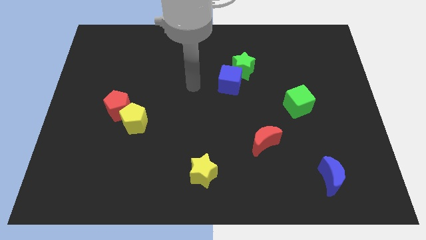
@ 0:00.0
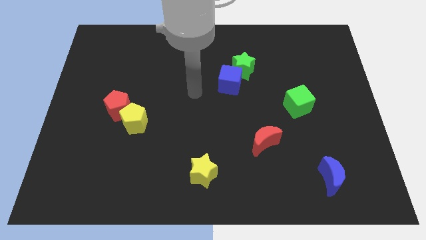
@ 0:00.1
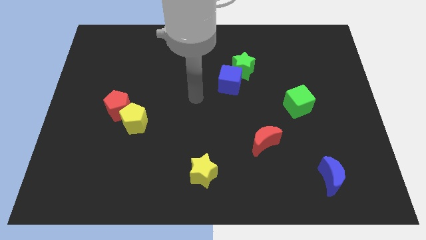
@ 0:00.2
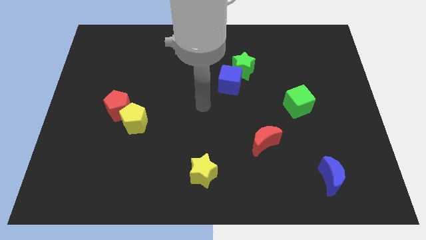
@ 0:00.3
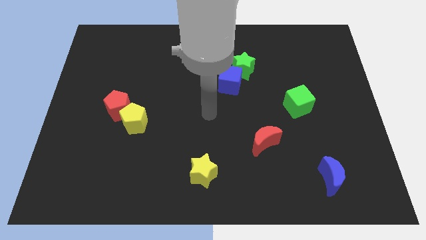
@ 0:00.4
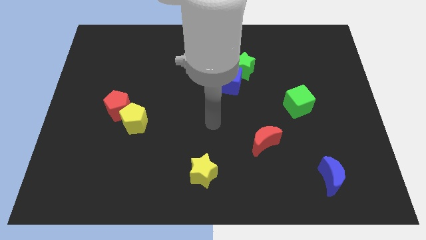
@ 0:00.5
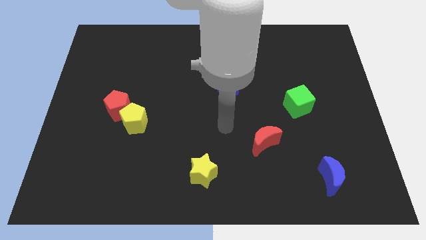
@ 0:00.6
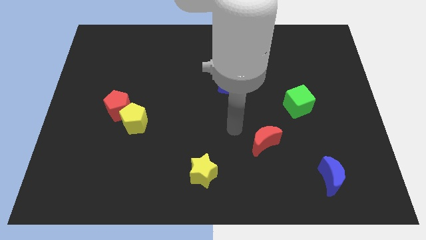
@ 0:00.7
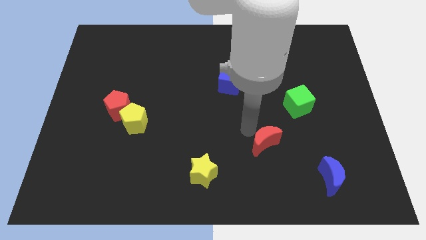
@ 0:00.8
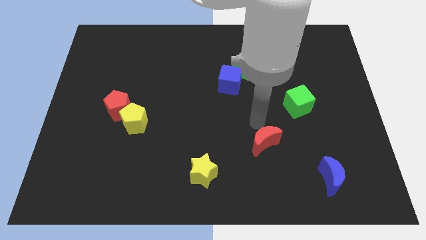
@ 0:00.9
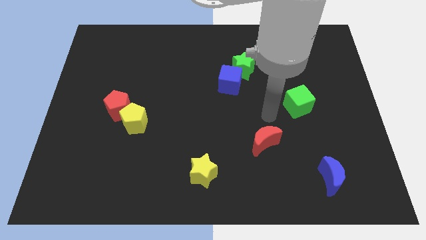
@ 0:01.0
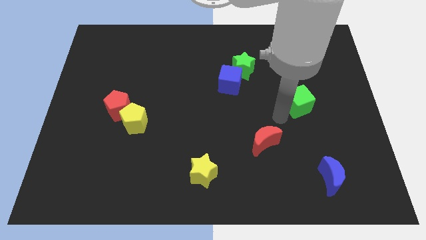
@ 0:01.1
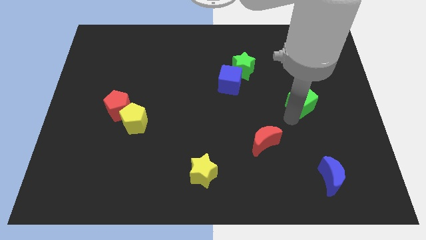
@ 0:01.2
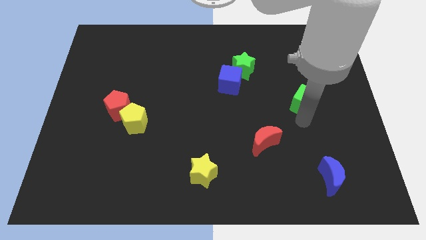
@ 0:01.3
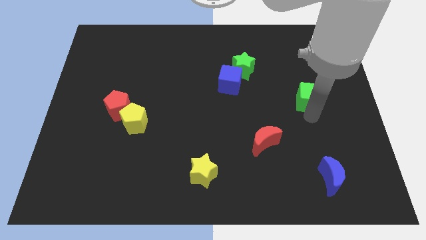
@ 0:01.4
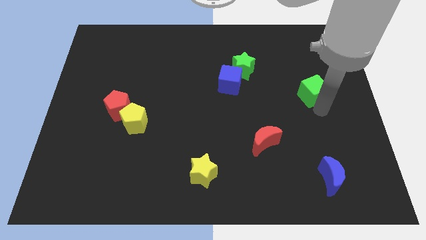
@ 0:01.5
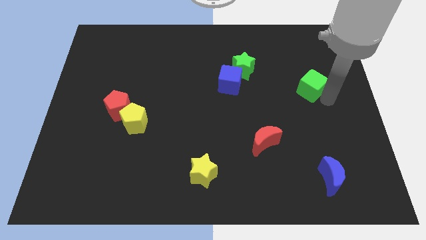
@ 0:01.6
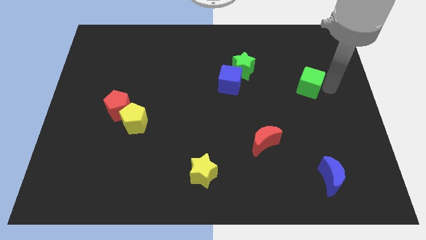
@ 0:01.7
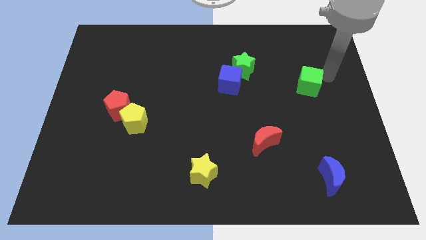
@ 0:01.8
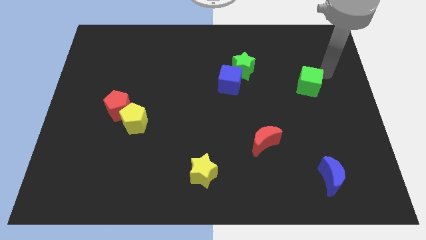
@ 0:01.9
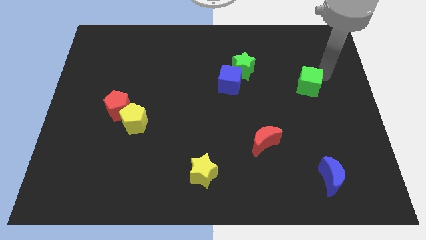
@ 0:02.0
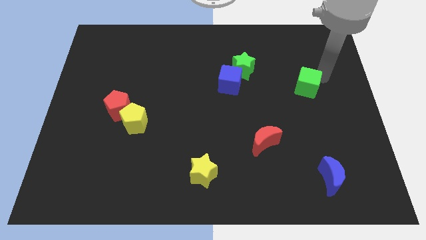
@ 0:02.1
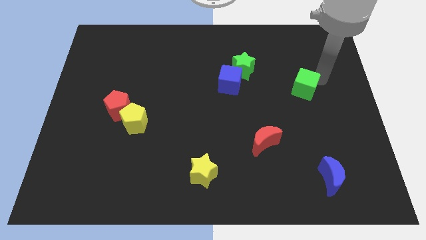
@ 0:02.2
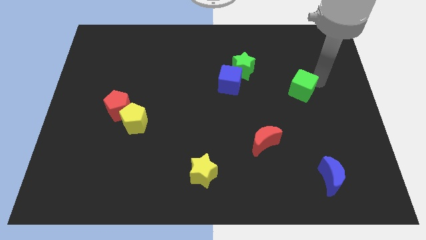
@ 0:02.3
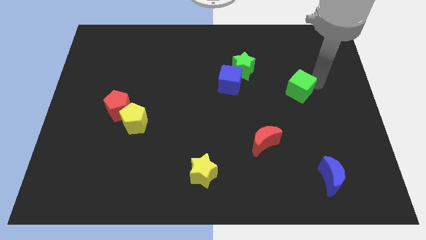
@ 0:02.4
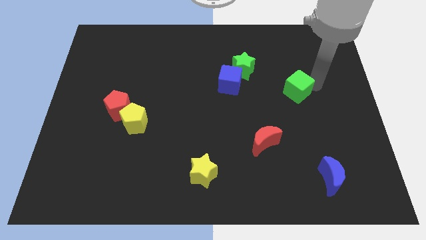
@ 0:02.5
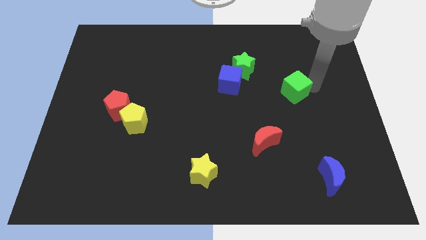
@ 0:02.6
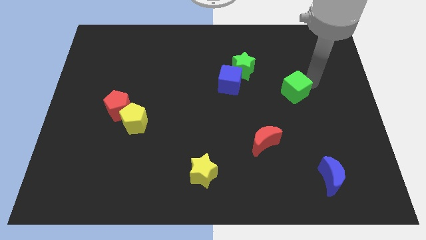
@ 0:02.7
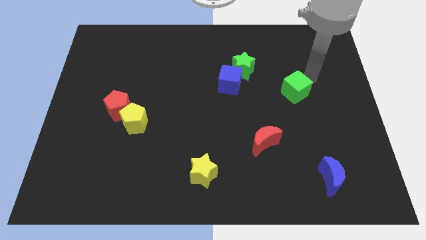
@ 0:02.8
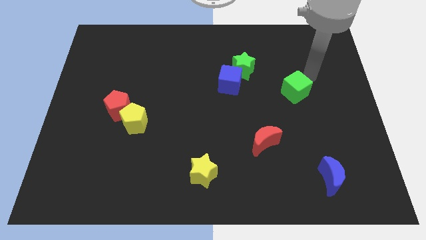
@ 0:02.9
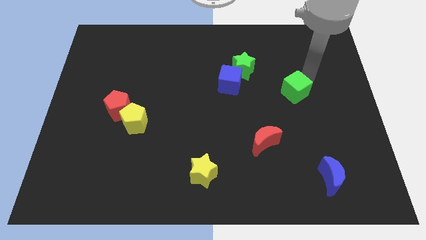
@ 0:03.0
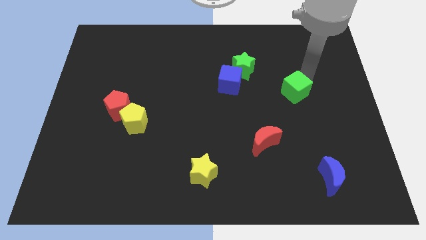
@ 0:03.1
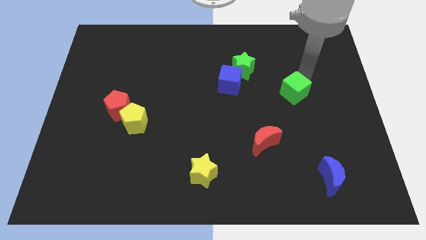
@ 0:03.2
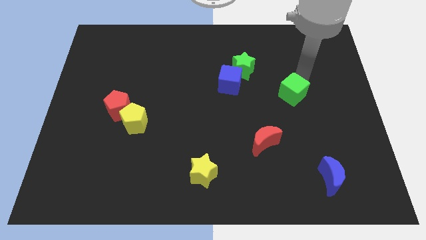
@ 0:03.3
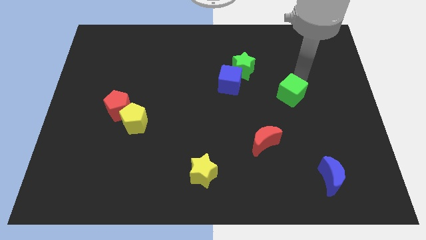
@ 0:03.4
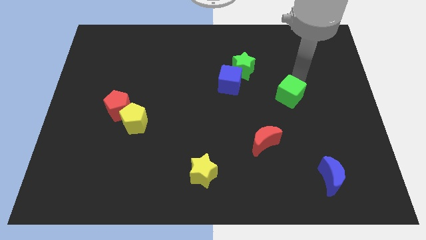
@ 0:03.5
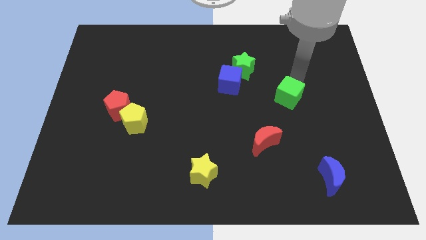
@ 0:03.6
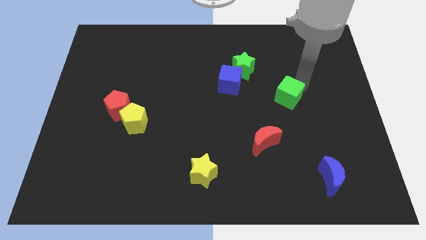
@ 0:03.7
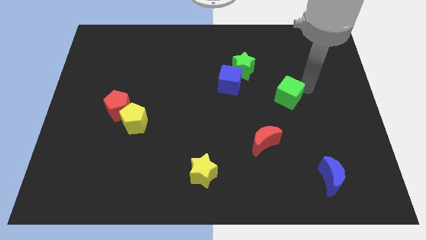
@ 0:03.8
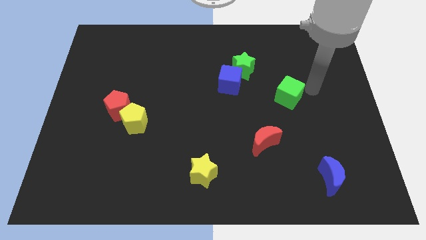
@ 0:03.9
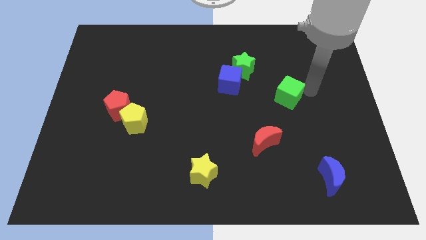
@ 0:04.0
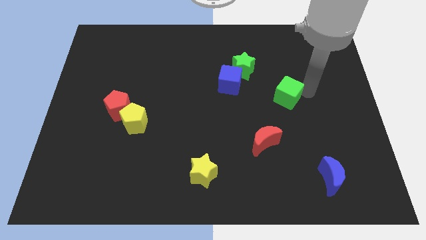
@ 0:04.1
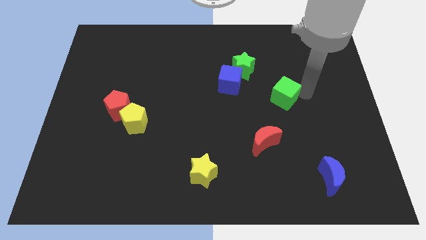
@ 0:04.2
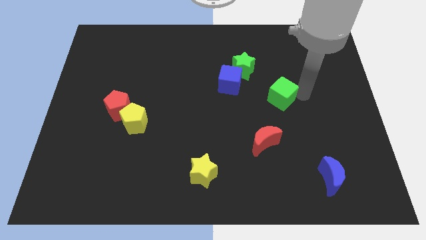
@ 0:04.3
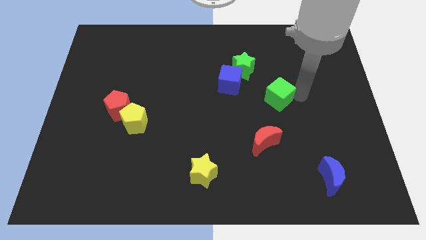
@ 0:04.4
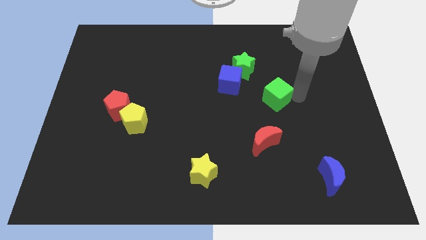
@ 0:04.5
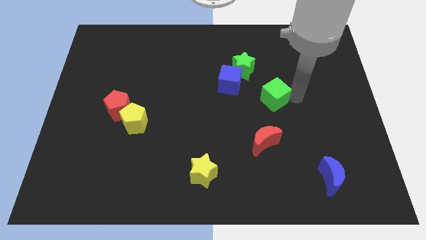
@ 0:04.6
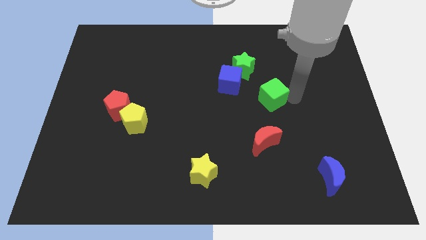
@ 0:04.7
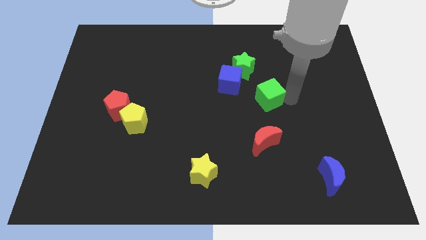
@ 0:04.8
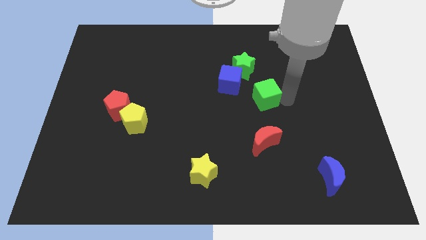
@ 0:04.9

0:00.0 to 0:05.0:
put the green cube to the center

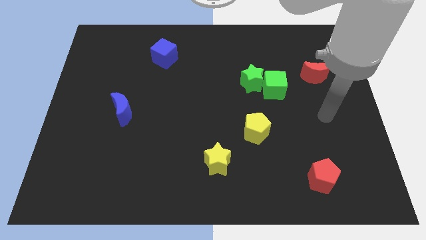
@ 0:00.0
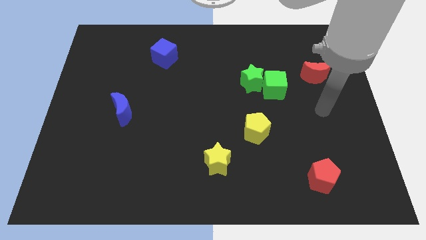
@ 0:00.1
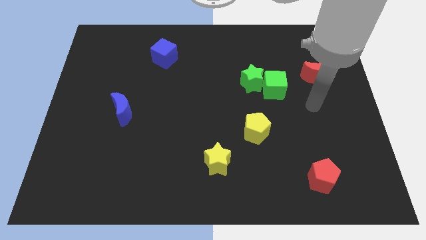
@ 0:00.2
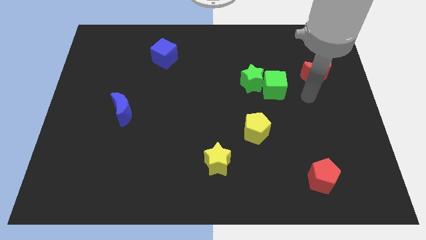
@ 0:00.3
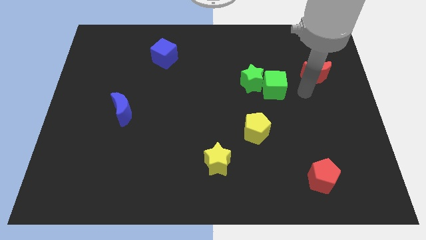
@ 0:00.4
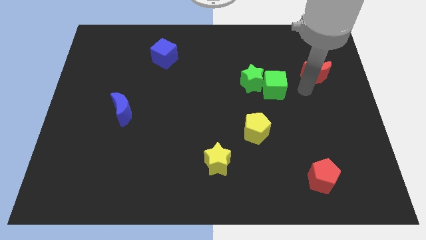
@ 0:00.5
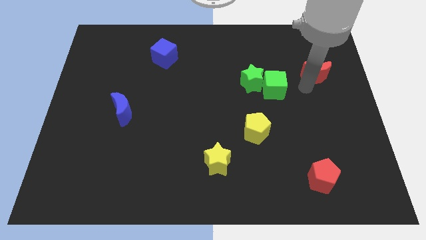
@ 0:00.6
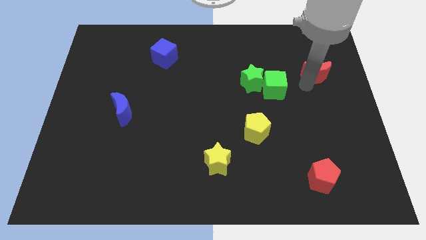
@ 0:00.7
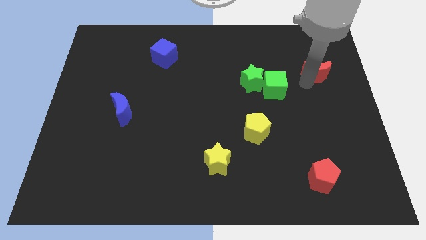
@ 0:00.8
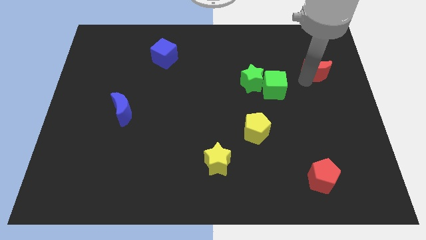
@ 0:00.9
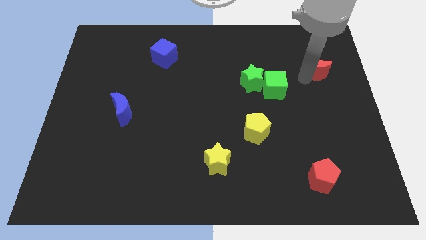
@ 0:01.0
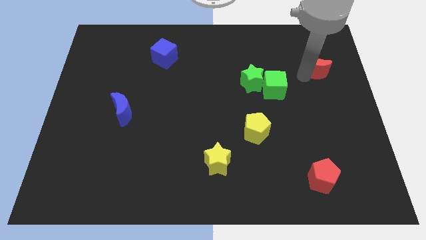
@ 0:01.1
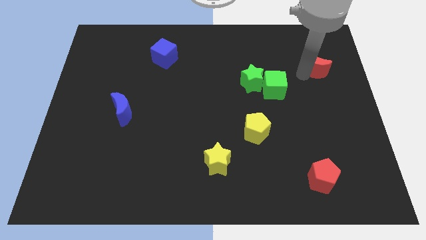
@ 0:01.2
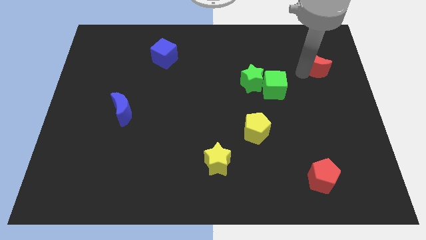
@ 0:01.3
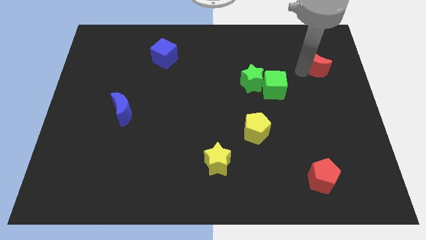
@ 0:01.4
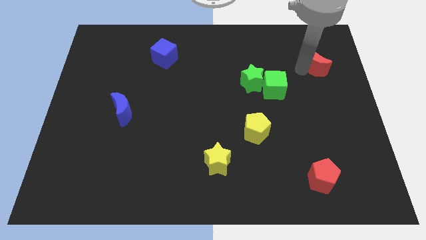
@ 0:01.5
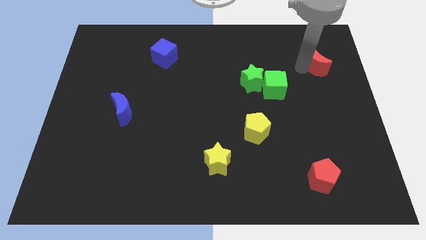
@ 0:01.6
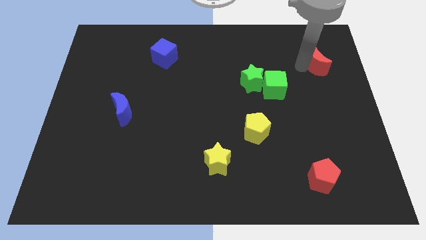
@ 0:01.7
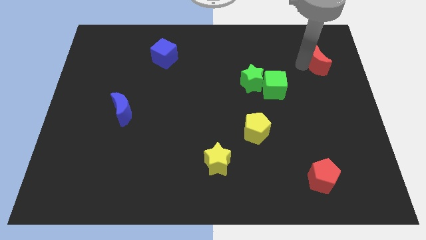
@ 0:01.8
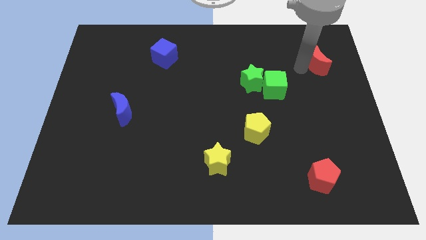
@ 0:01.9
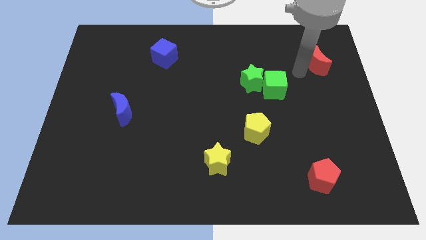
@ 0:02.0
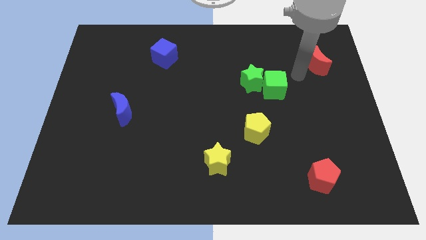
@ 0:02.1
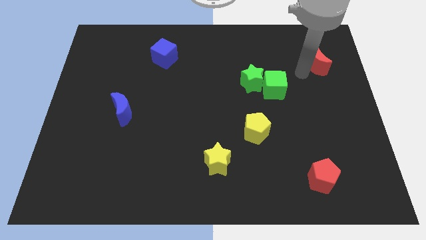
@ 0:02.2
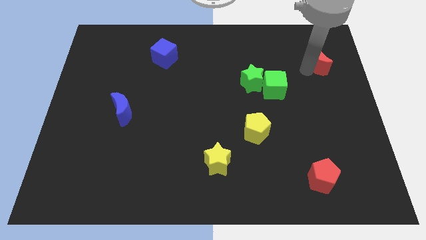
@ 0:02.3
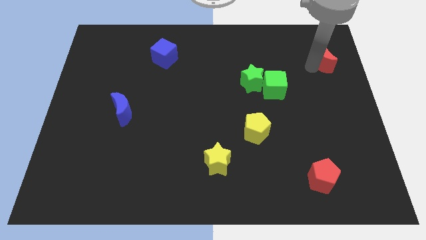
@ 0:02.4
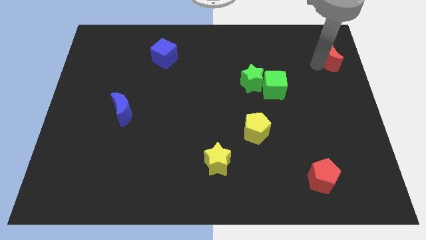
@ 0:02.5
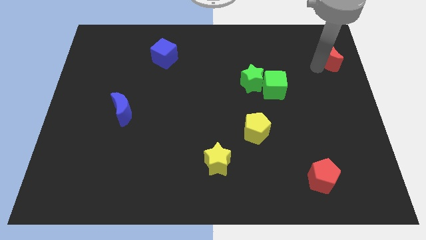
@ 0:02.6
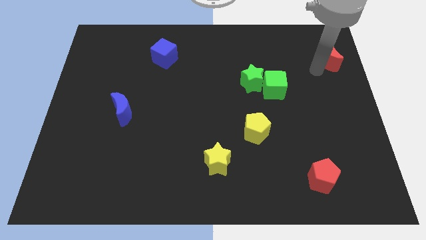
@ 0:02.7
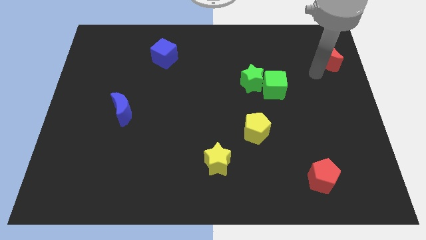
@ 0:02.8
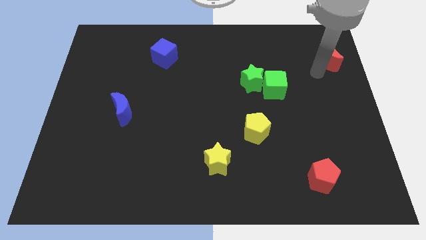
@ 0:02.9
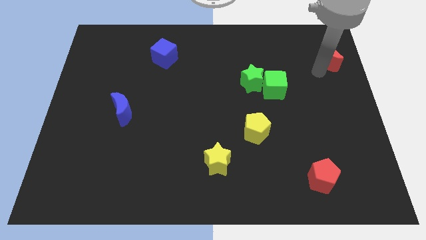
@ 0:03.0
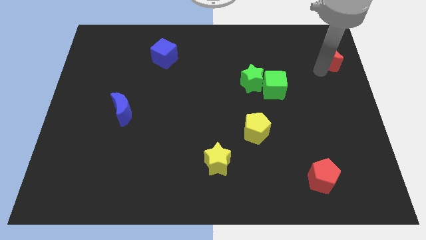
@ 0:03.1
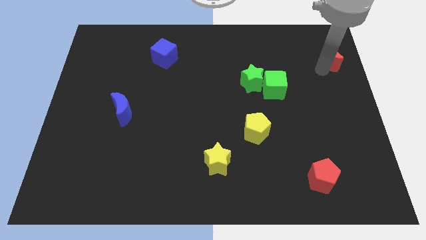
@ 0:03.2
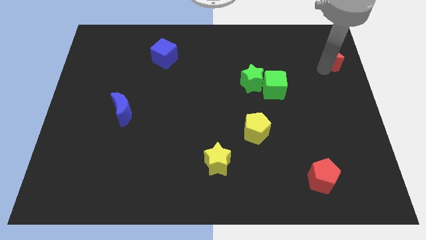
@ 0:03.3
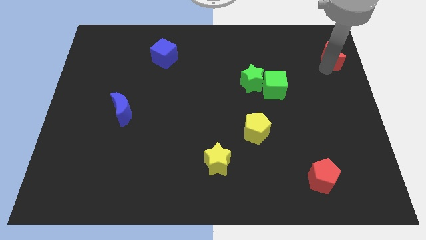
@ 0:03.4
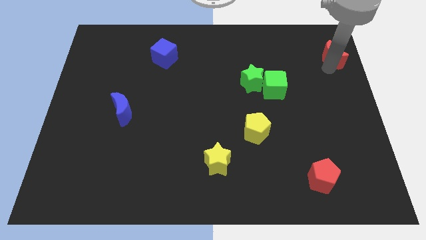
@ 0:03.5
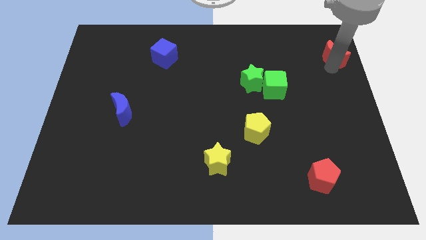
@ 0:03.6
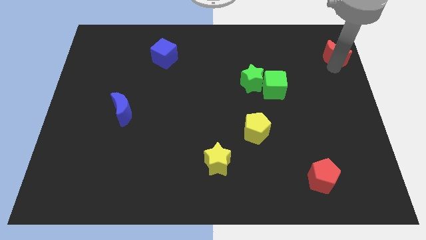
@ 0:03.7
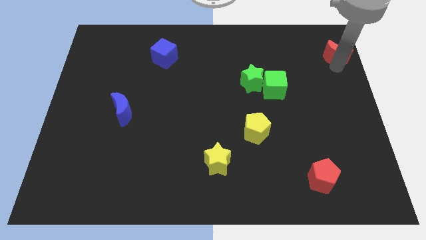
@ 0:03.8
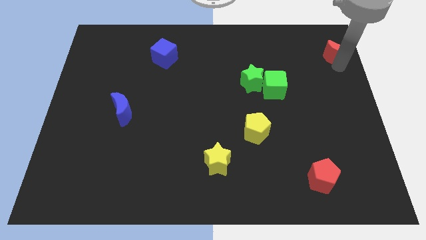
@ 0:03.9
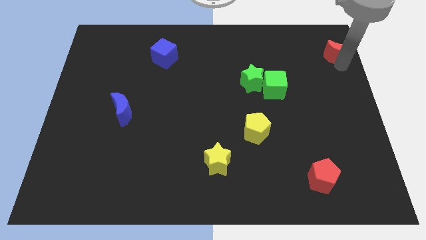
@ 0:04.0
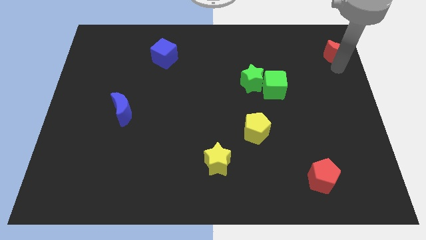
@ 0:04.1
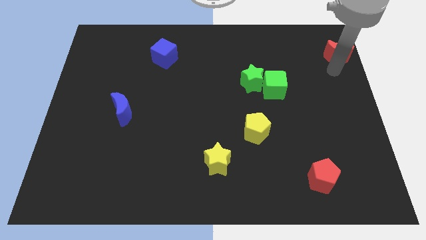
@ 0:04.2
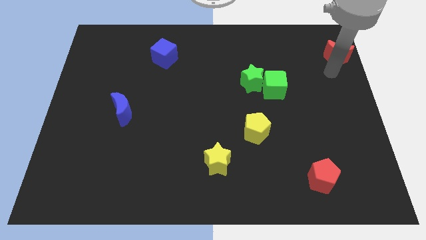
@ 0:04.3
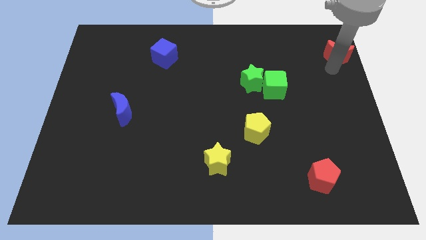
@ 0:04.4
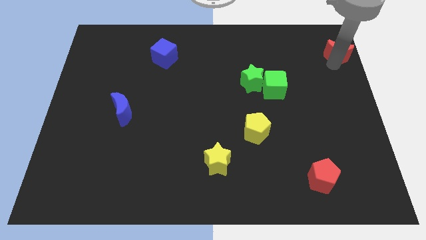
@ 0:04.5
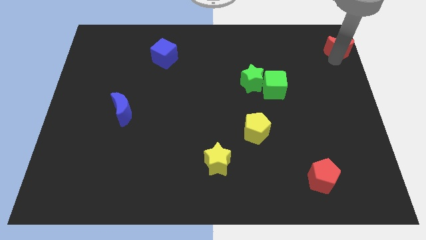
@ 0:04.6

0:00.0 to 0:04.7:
slide the red moon to the top right corner
